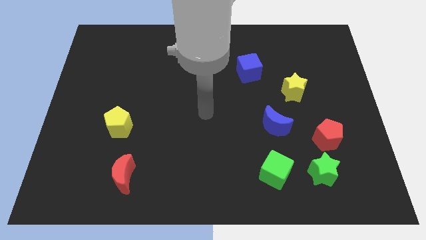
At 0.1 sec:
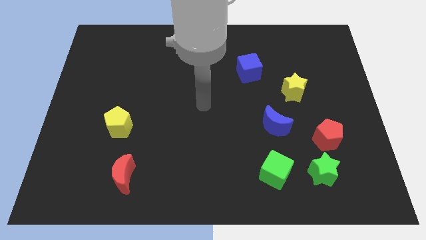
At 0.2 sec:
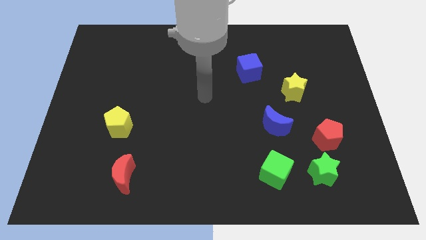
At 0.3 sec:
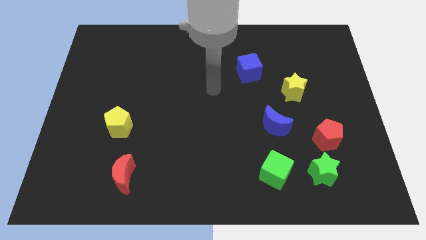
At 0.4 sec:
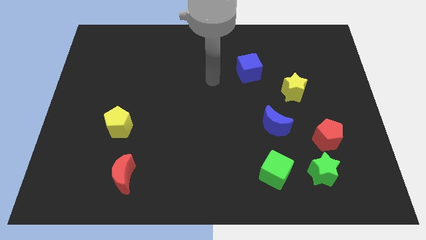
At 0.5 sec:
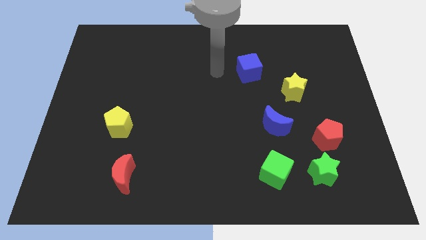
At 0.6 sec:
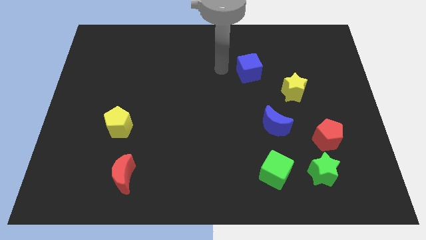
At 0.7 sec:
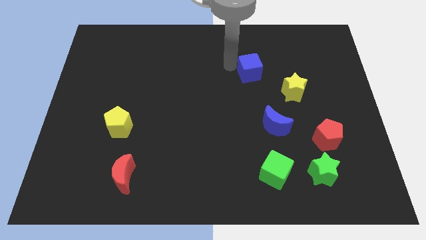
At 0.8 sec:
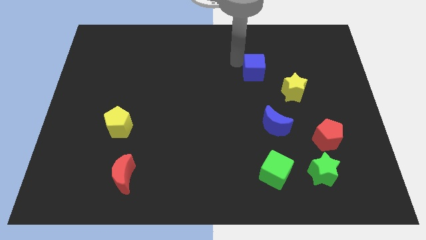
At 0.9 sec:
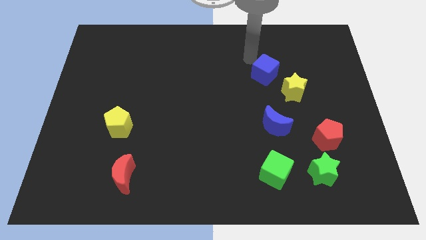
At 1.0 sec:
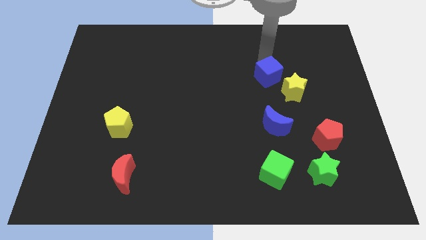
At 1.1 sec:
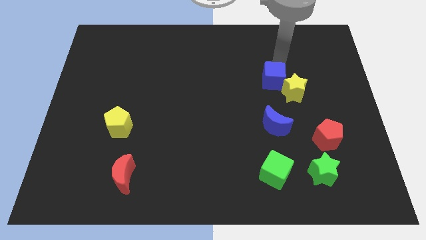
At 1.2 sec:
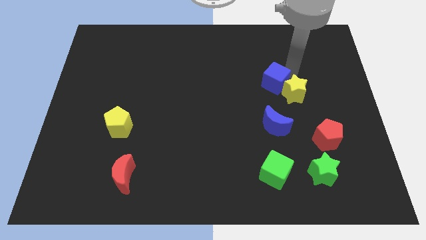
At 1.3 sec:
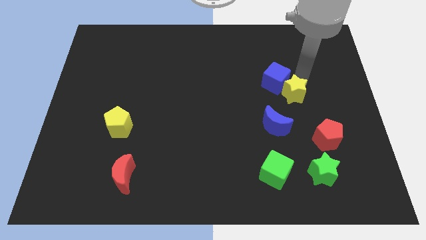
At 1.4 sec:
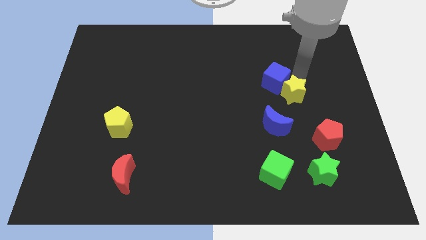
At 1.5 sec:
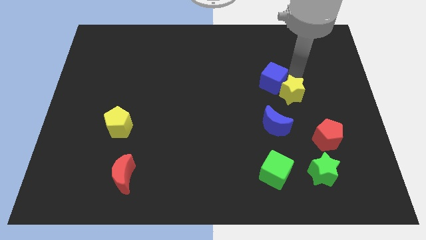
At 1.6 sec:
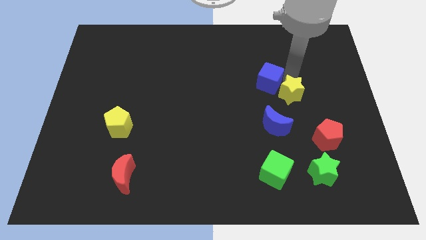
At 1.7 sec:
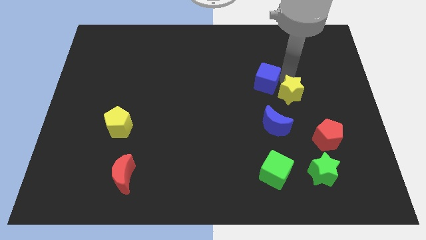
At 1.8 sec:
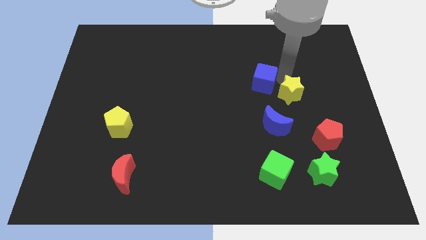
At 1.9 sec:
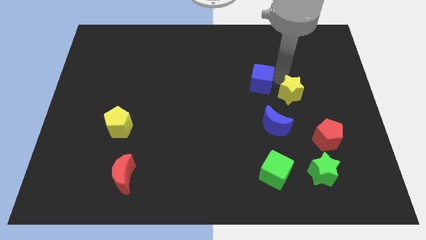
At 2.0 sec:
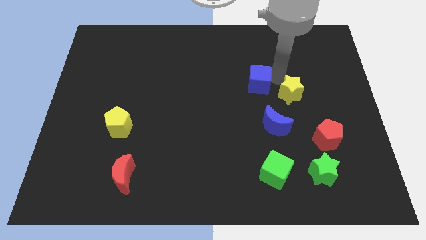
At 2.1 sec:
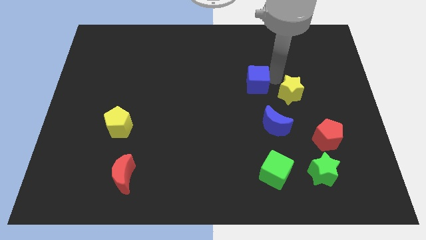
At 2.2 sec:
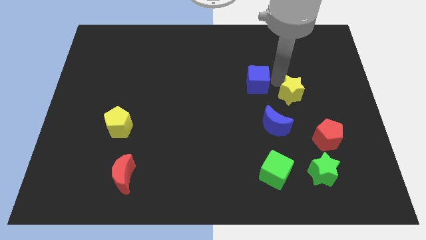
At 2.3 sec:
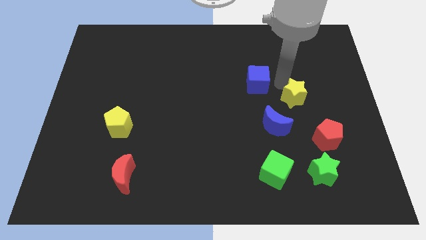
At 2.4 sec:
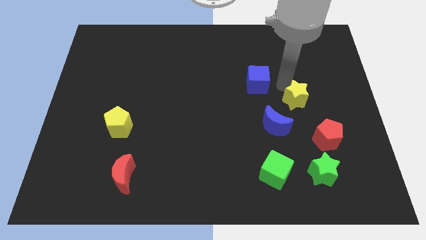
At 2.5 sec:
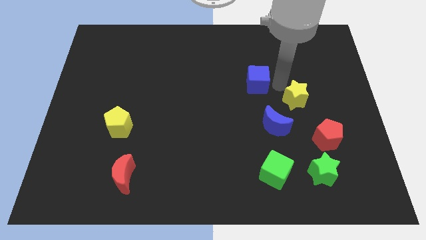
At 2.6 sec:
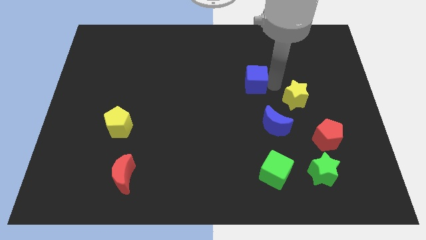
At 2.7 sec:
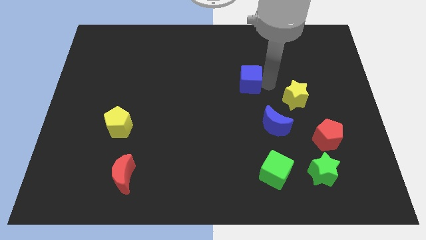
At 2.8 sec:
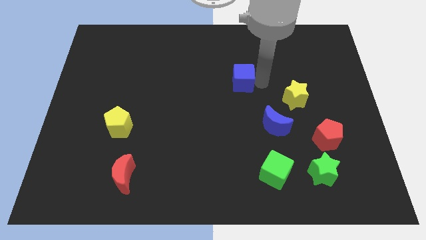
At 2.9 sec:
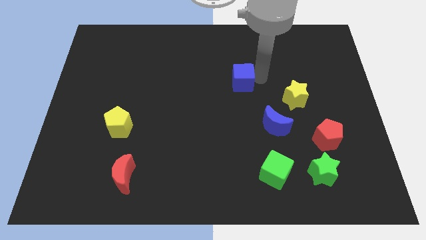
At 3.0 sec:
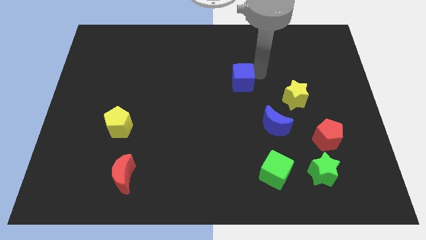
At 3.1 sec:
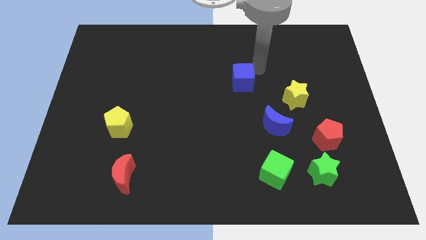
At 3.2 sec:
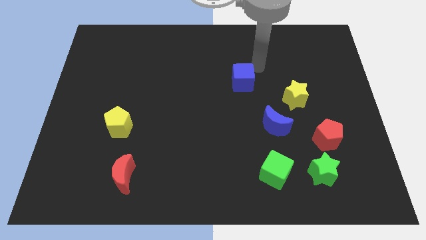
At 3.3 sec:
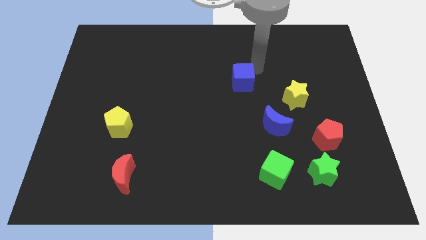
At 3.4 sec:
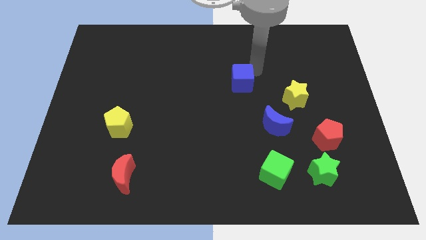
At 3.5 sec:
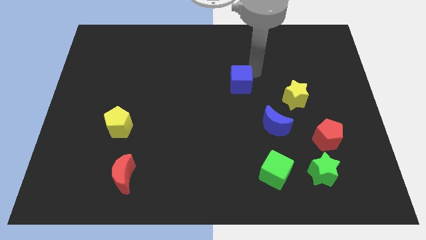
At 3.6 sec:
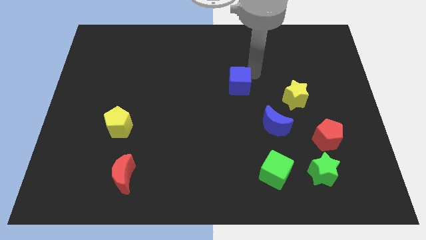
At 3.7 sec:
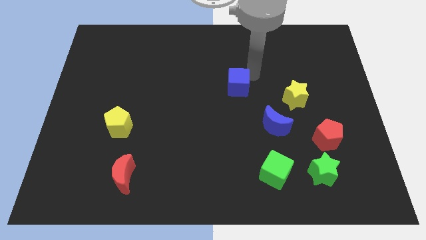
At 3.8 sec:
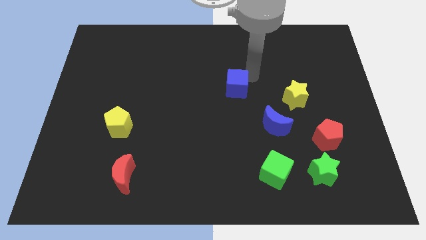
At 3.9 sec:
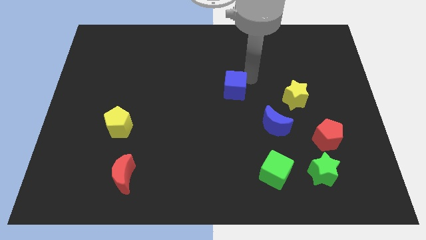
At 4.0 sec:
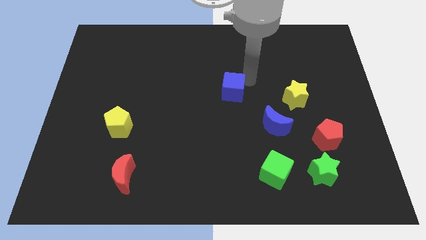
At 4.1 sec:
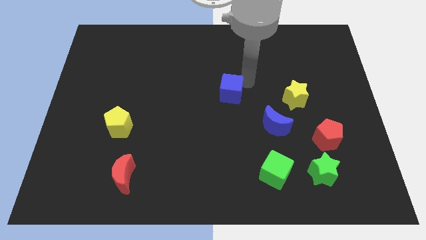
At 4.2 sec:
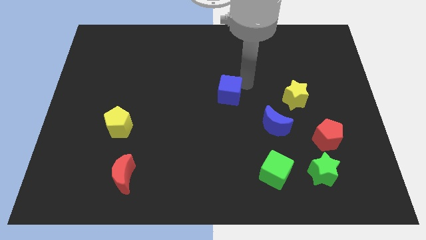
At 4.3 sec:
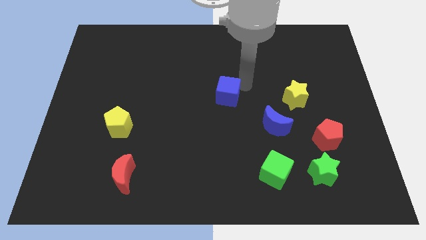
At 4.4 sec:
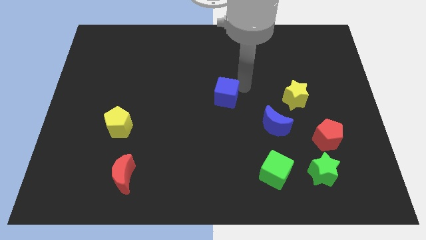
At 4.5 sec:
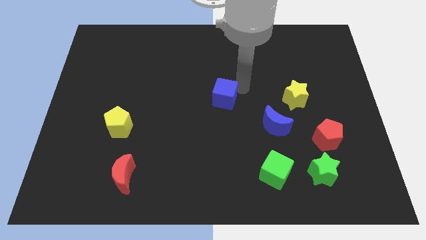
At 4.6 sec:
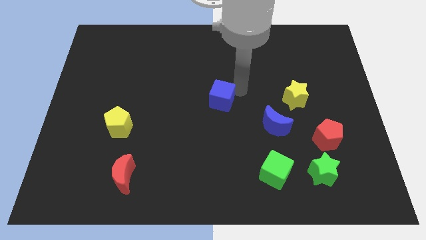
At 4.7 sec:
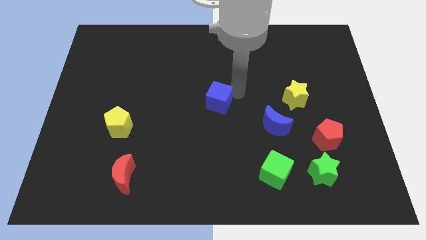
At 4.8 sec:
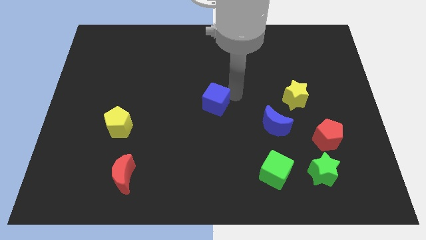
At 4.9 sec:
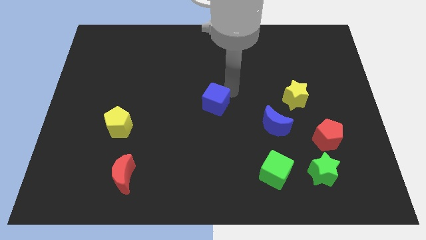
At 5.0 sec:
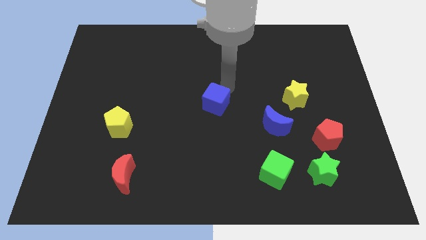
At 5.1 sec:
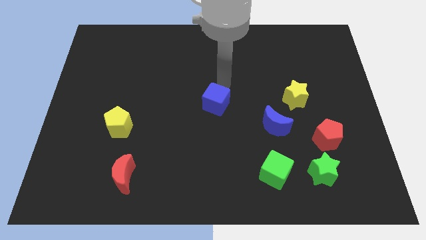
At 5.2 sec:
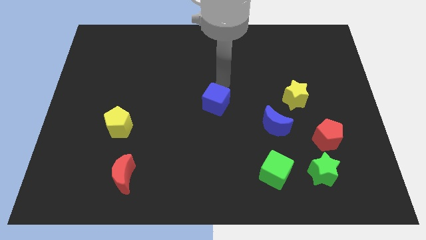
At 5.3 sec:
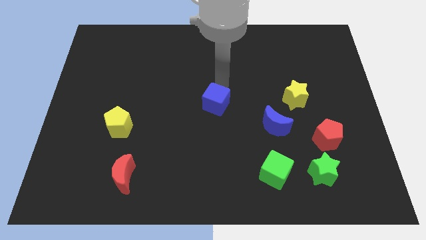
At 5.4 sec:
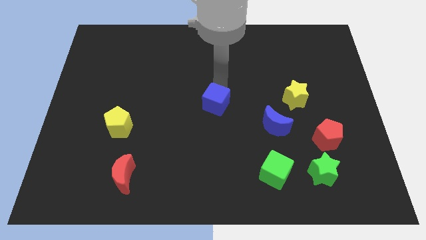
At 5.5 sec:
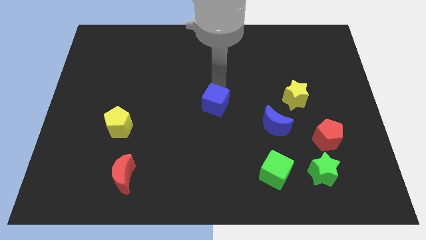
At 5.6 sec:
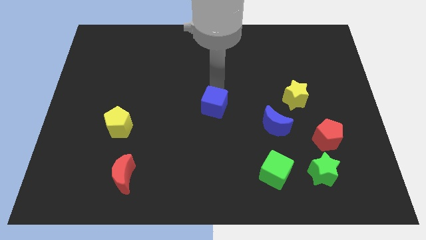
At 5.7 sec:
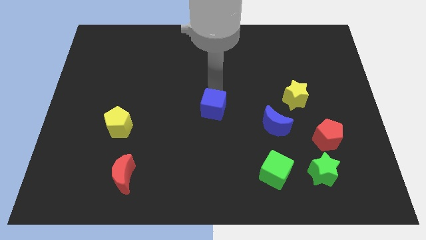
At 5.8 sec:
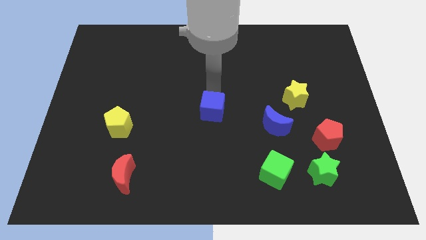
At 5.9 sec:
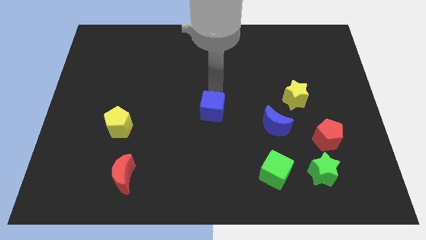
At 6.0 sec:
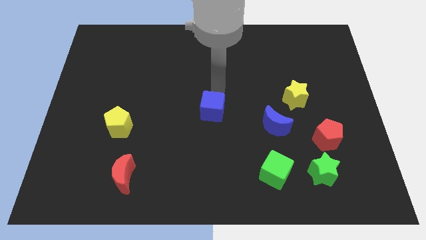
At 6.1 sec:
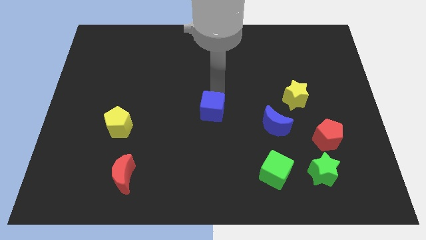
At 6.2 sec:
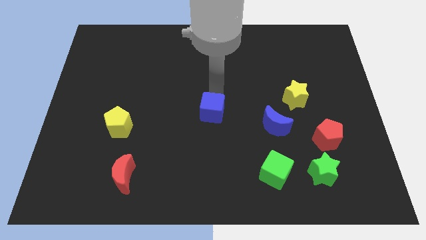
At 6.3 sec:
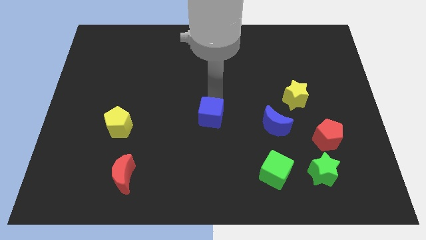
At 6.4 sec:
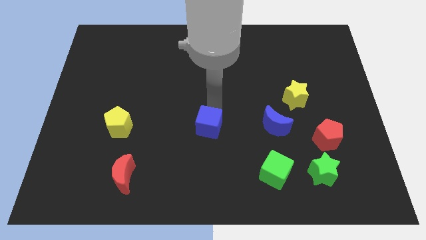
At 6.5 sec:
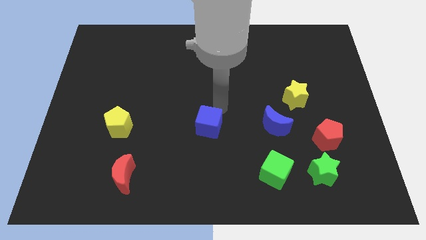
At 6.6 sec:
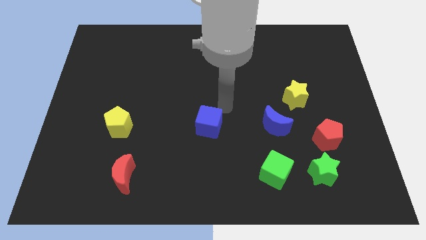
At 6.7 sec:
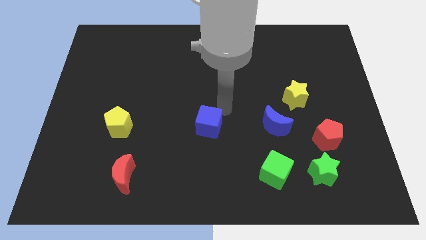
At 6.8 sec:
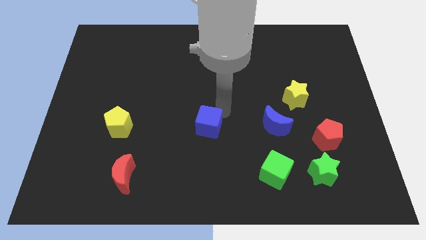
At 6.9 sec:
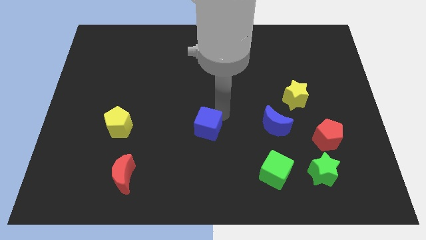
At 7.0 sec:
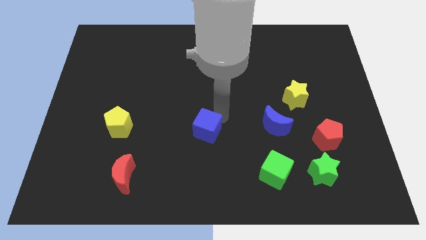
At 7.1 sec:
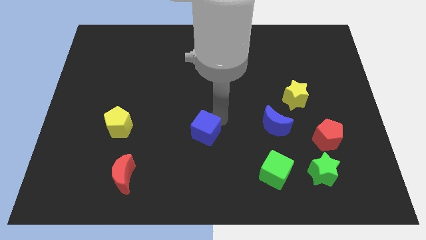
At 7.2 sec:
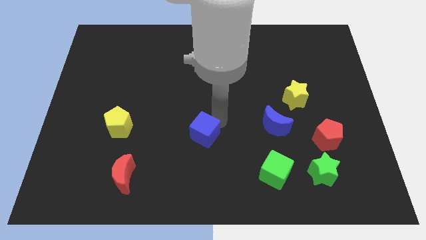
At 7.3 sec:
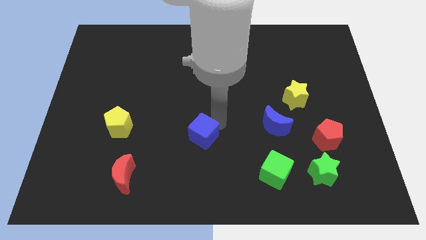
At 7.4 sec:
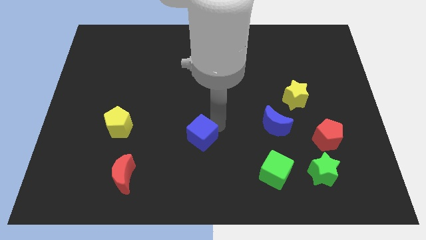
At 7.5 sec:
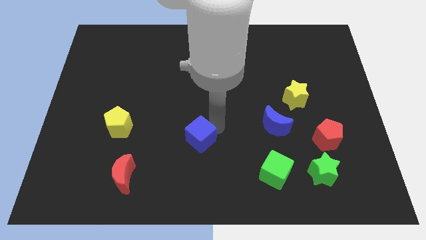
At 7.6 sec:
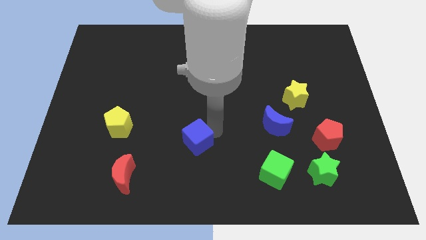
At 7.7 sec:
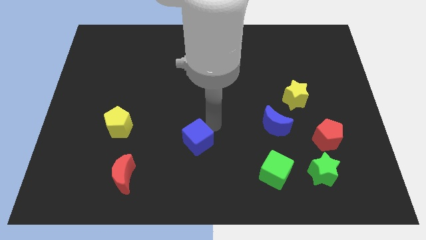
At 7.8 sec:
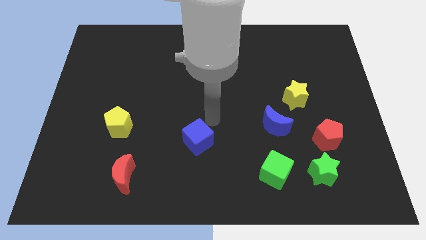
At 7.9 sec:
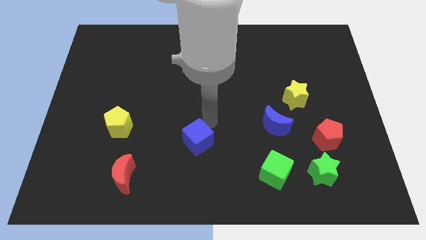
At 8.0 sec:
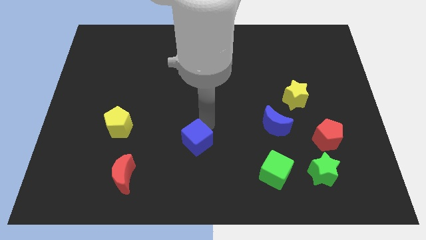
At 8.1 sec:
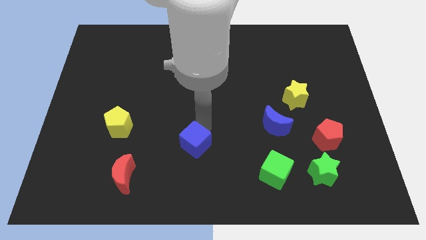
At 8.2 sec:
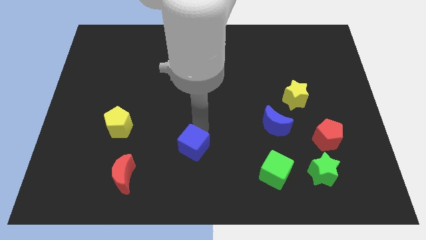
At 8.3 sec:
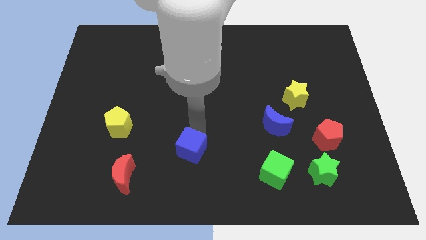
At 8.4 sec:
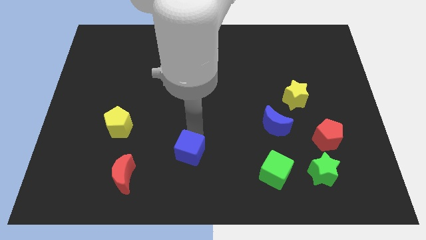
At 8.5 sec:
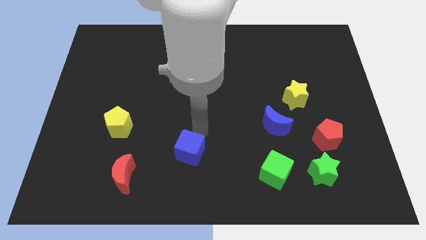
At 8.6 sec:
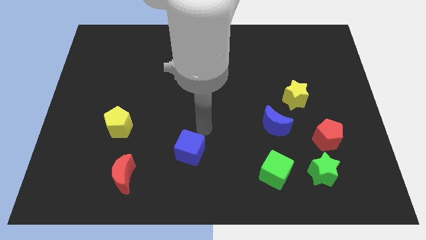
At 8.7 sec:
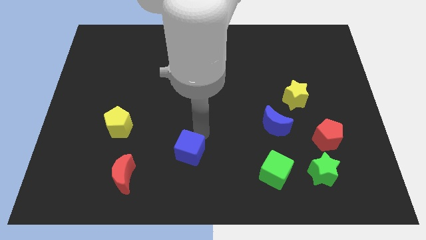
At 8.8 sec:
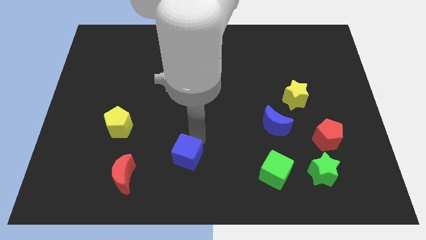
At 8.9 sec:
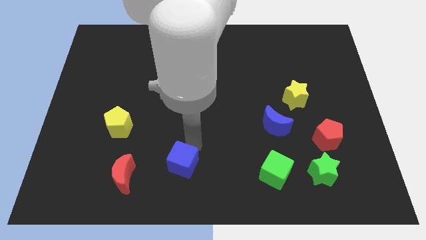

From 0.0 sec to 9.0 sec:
slide the blue cube right of the red moon
